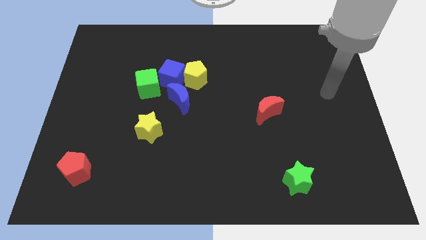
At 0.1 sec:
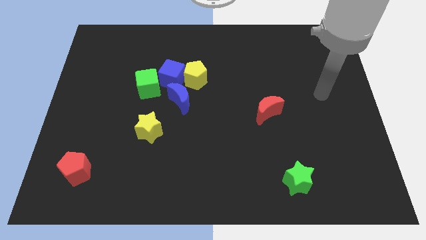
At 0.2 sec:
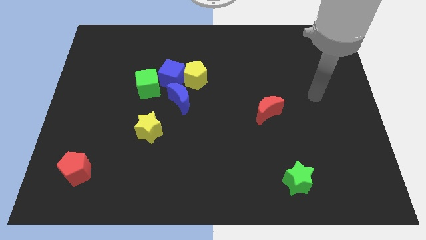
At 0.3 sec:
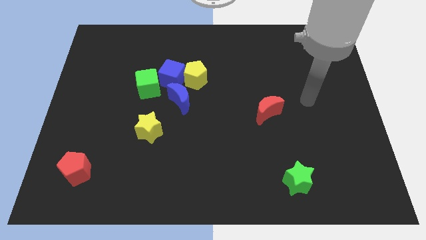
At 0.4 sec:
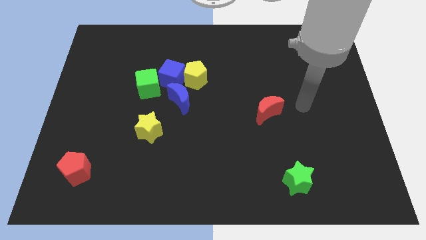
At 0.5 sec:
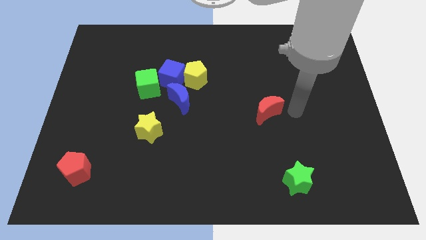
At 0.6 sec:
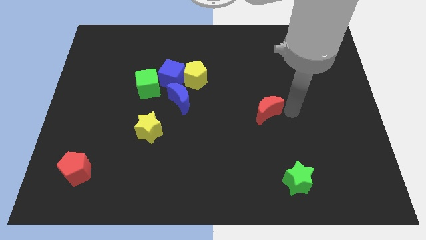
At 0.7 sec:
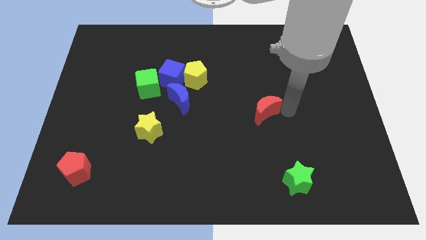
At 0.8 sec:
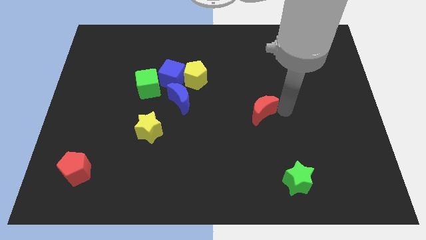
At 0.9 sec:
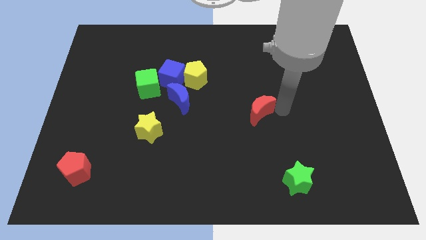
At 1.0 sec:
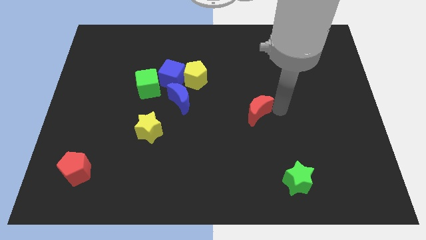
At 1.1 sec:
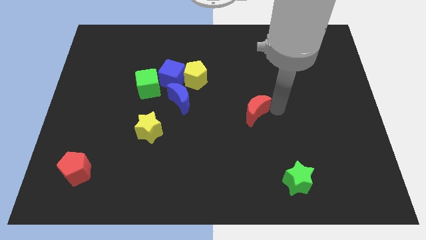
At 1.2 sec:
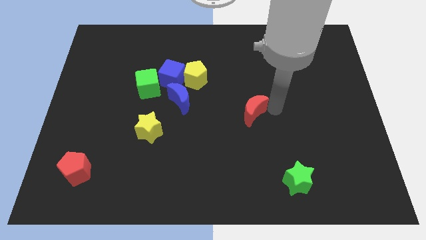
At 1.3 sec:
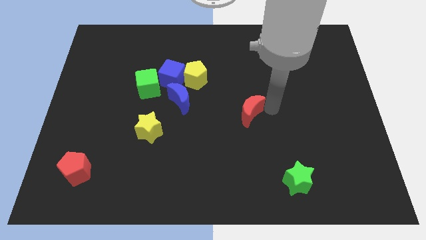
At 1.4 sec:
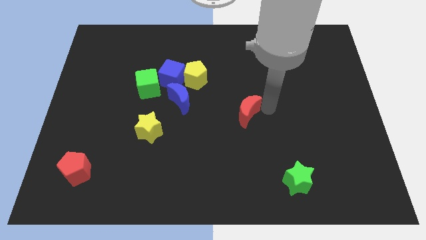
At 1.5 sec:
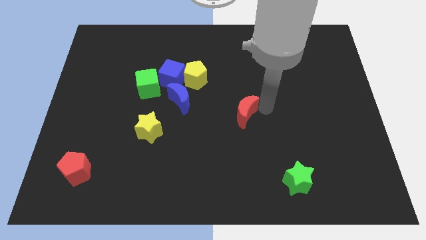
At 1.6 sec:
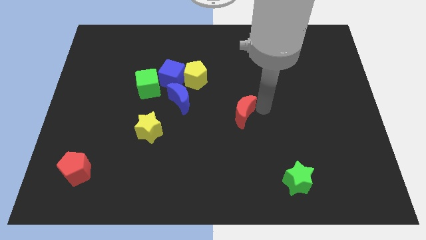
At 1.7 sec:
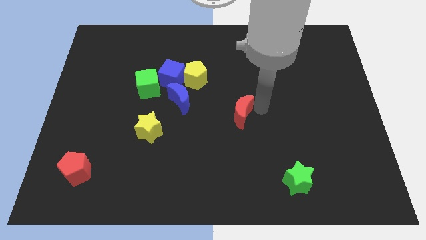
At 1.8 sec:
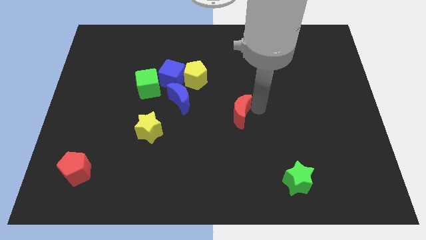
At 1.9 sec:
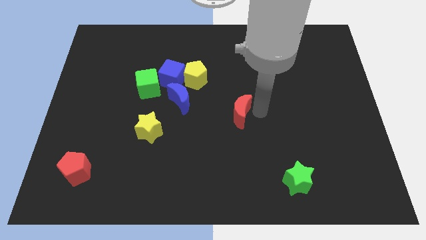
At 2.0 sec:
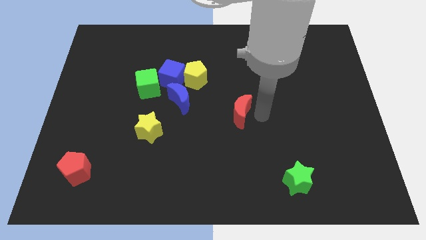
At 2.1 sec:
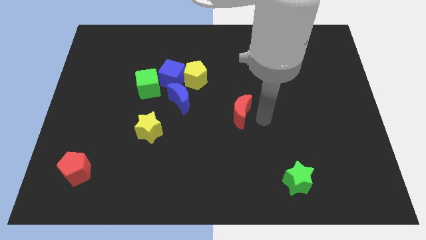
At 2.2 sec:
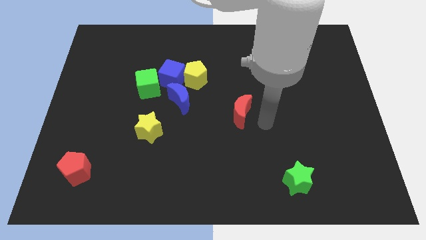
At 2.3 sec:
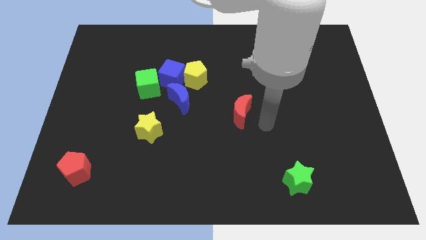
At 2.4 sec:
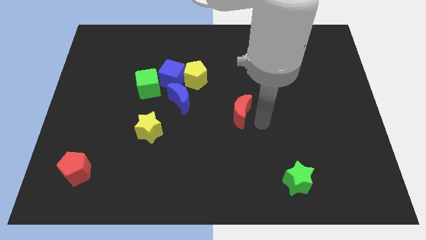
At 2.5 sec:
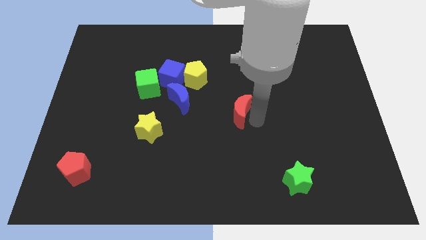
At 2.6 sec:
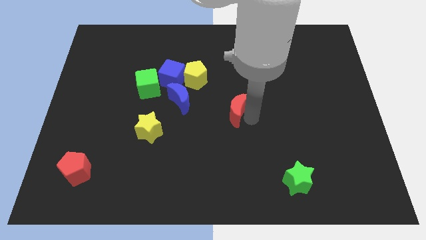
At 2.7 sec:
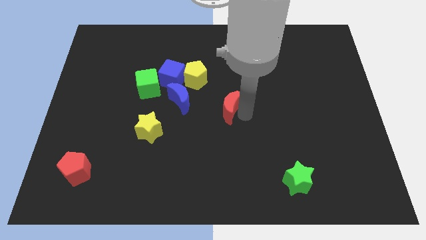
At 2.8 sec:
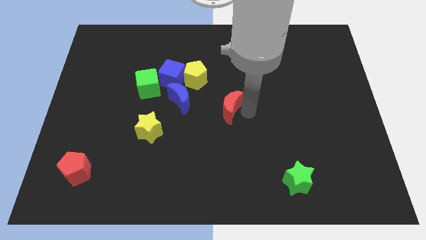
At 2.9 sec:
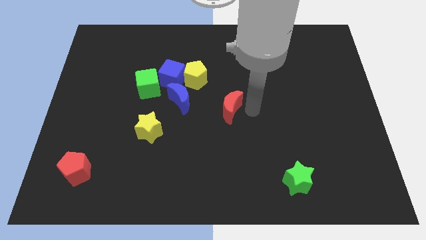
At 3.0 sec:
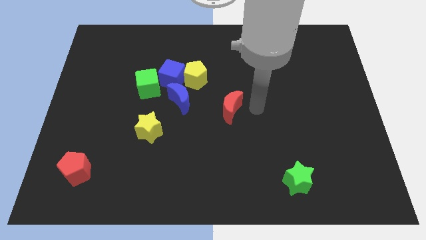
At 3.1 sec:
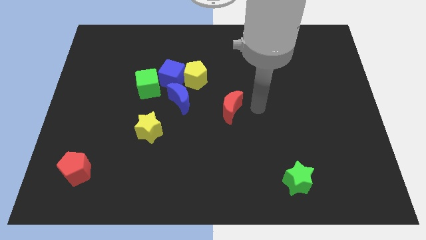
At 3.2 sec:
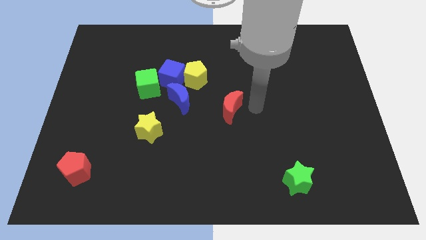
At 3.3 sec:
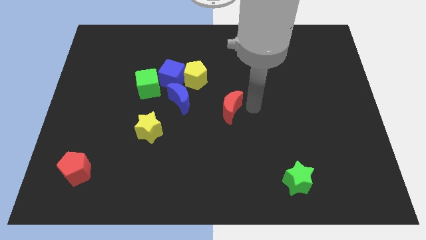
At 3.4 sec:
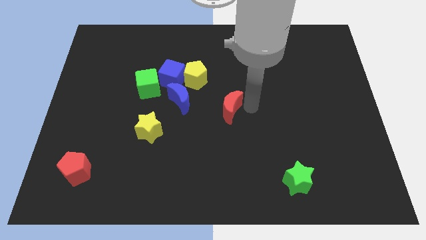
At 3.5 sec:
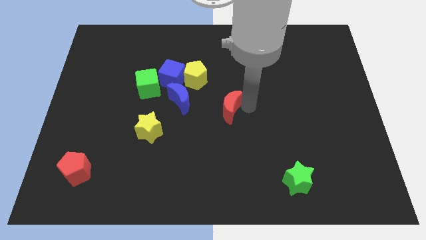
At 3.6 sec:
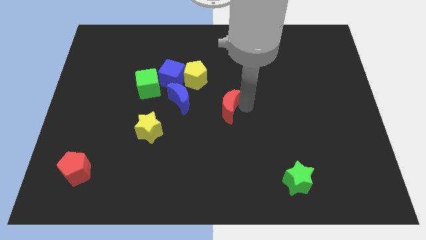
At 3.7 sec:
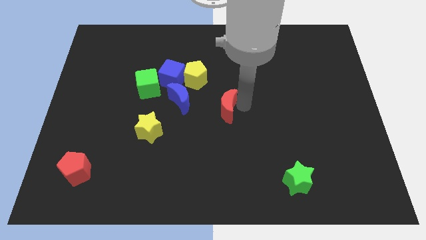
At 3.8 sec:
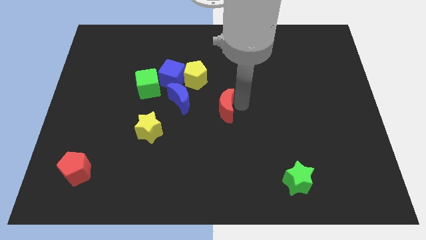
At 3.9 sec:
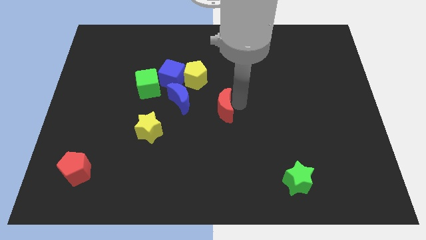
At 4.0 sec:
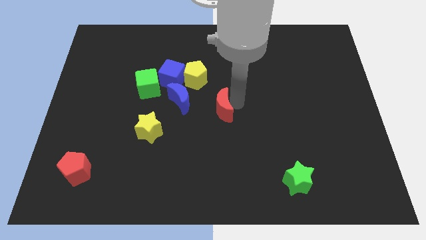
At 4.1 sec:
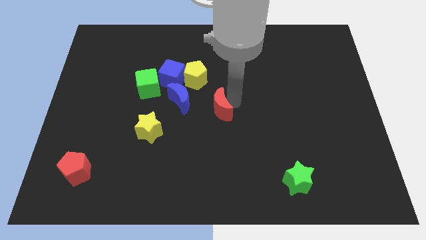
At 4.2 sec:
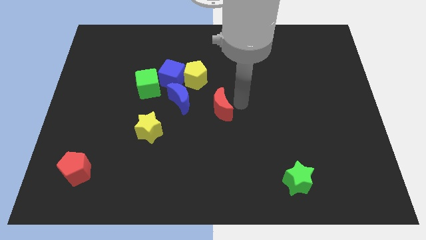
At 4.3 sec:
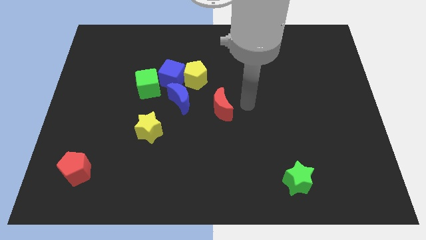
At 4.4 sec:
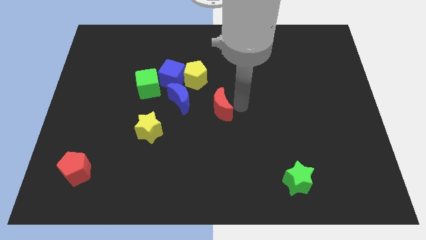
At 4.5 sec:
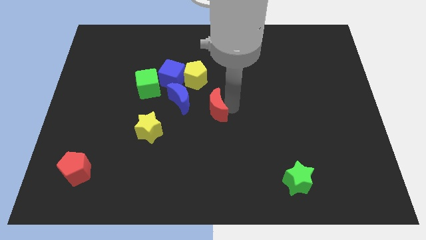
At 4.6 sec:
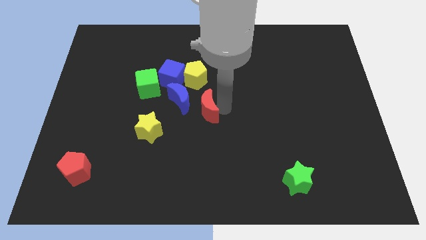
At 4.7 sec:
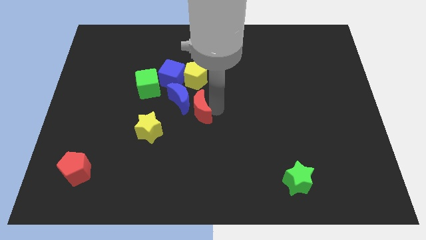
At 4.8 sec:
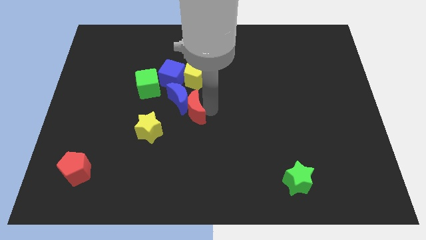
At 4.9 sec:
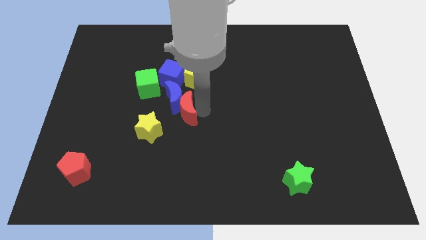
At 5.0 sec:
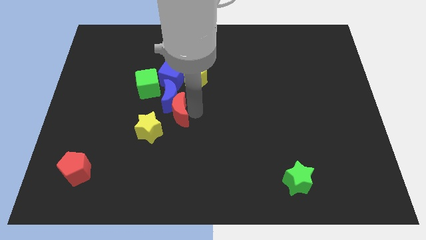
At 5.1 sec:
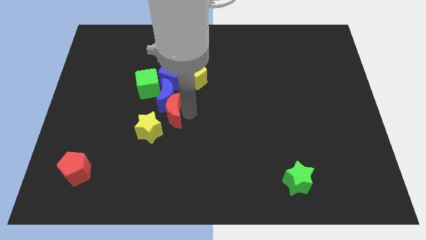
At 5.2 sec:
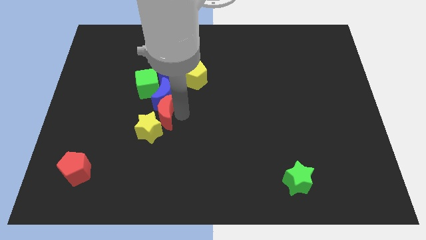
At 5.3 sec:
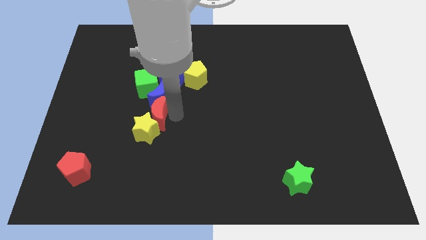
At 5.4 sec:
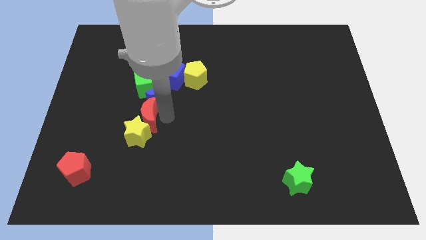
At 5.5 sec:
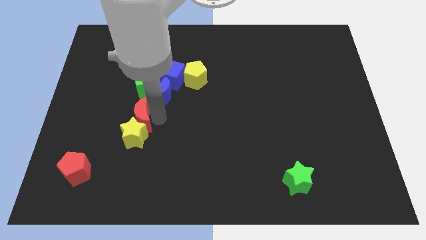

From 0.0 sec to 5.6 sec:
push the red moon to the top left of the yellow star

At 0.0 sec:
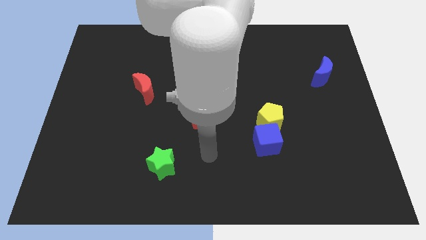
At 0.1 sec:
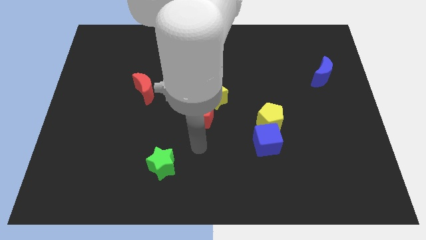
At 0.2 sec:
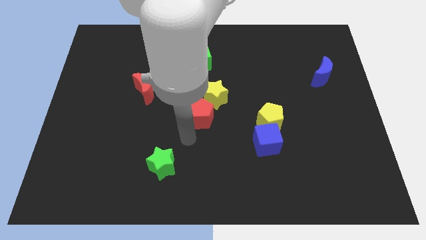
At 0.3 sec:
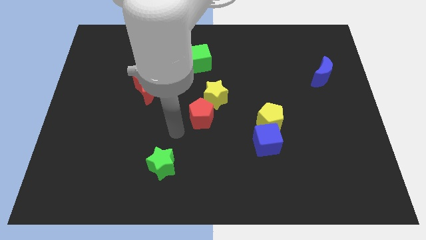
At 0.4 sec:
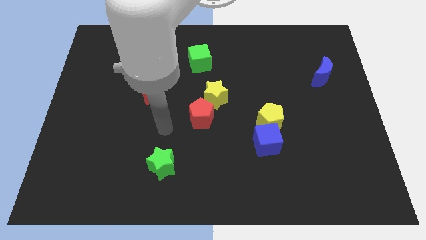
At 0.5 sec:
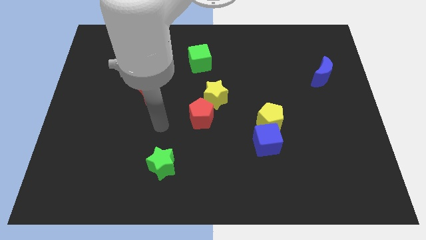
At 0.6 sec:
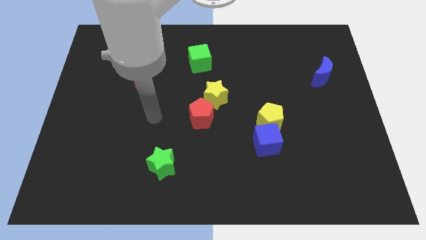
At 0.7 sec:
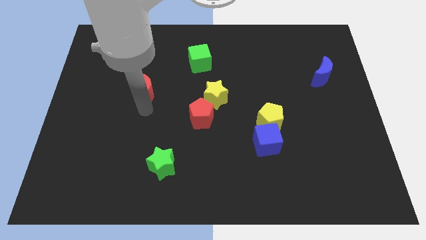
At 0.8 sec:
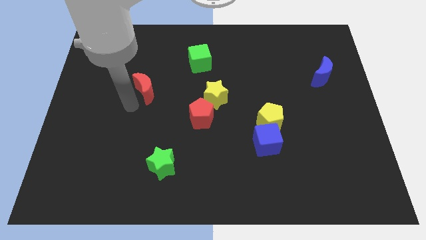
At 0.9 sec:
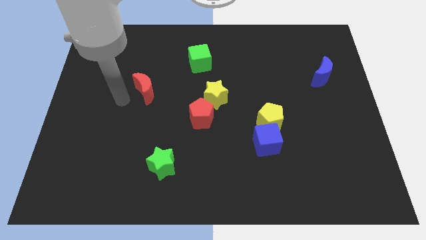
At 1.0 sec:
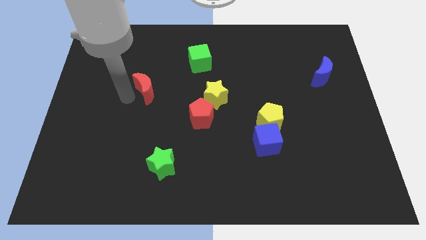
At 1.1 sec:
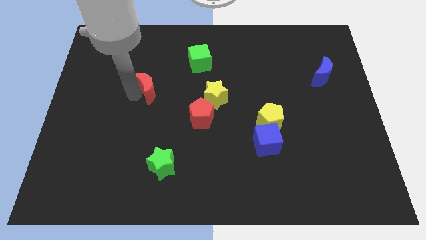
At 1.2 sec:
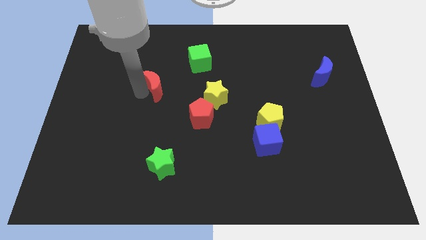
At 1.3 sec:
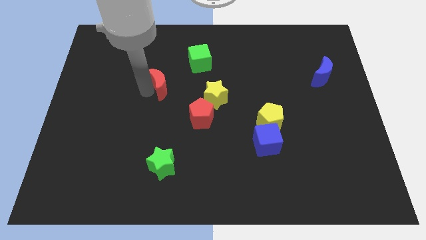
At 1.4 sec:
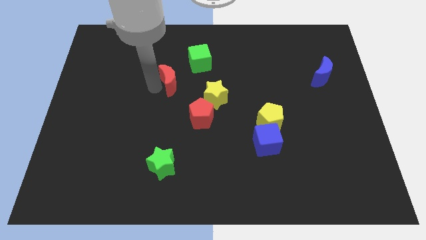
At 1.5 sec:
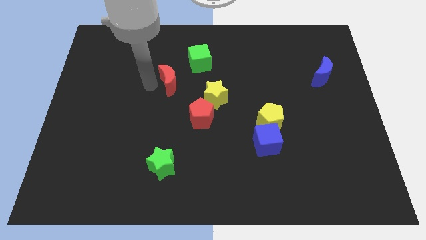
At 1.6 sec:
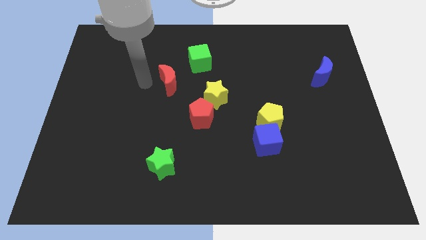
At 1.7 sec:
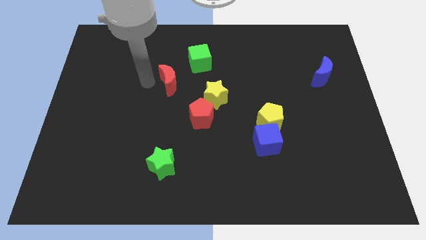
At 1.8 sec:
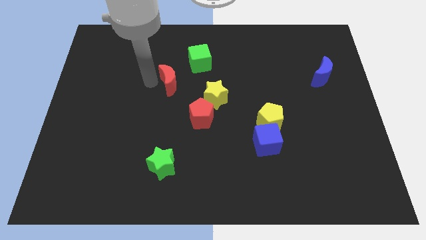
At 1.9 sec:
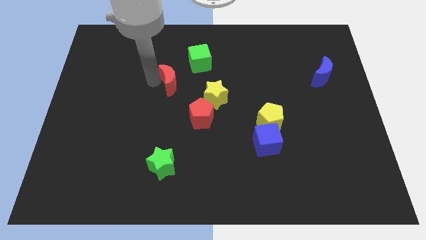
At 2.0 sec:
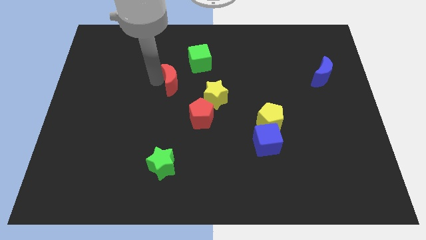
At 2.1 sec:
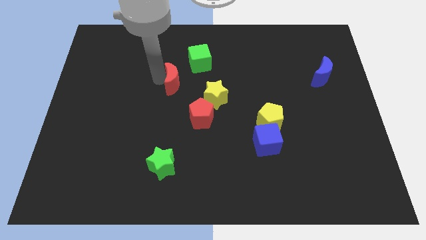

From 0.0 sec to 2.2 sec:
slide the red moon to the top left of the yellow star
